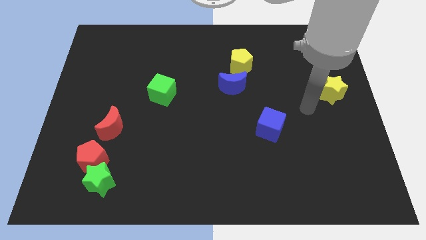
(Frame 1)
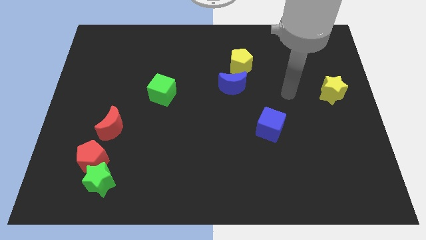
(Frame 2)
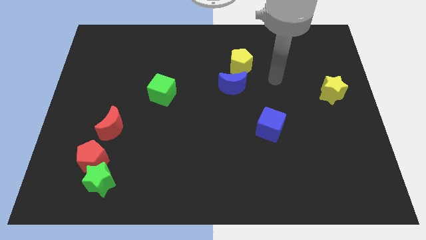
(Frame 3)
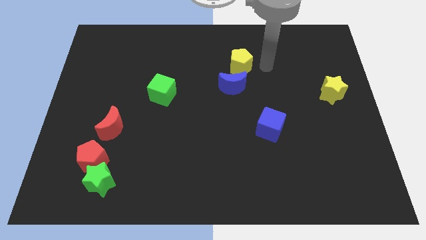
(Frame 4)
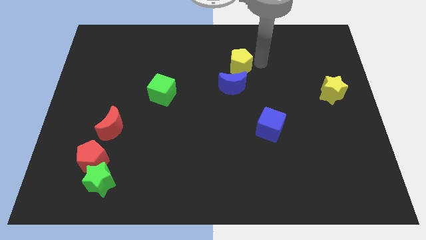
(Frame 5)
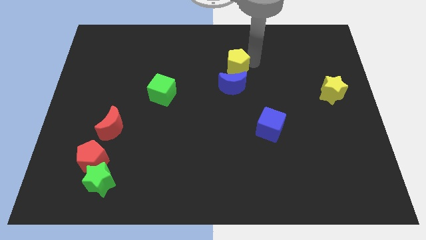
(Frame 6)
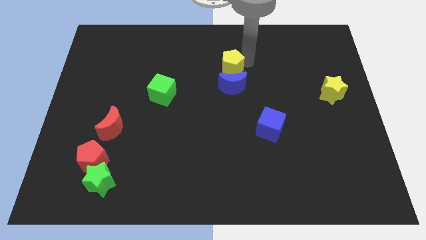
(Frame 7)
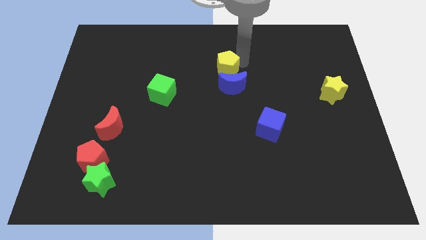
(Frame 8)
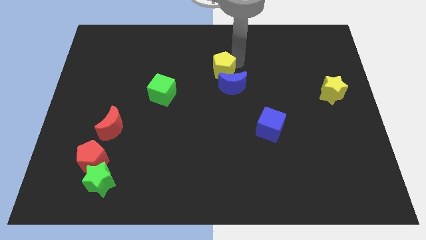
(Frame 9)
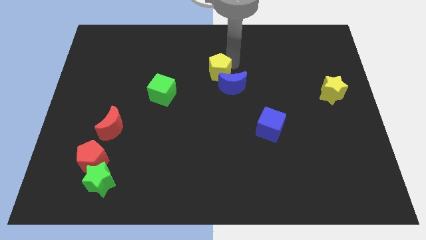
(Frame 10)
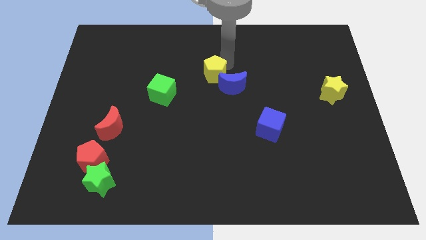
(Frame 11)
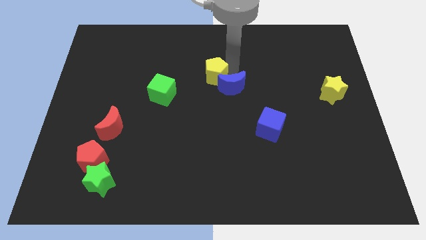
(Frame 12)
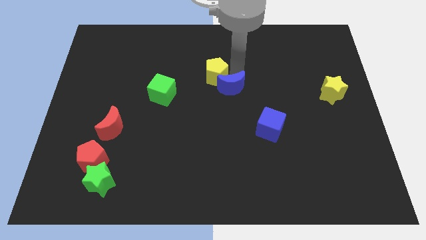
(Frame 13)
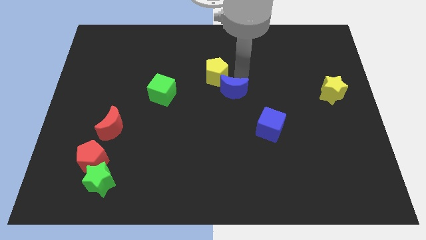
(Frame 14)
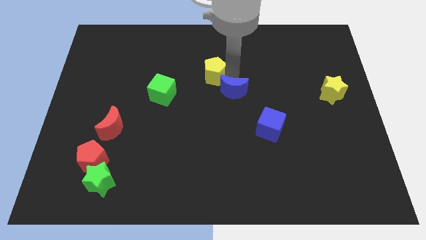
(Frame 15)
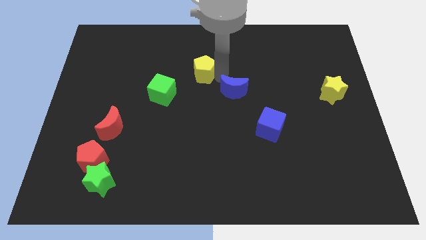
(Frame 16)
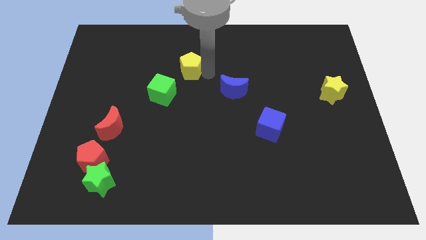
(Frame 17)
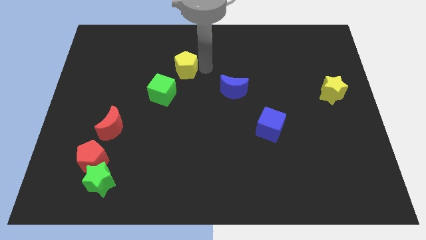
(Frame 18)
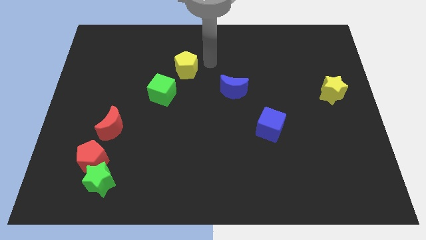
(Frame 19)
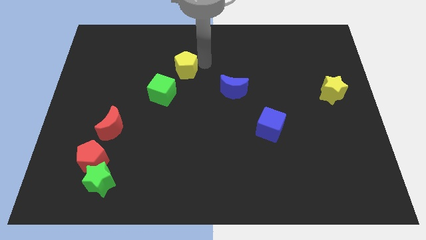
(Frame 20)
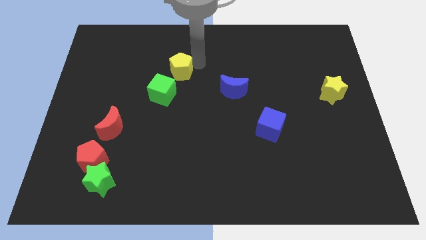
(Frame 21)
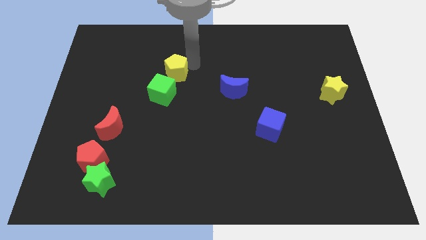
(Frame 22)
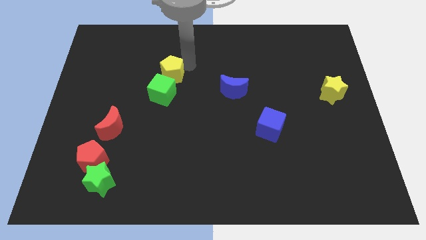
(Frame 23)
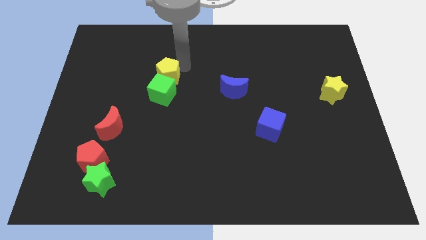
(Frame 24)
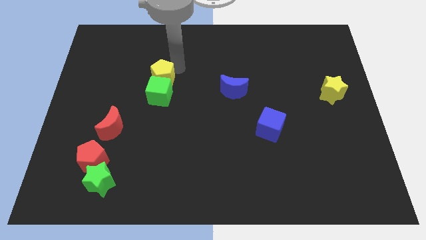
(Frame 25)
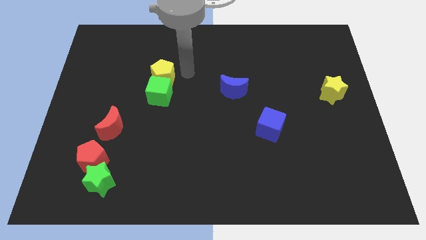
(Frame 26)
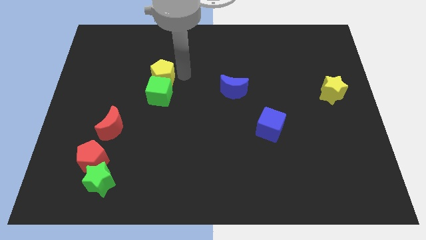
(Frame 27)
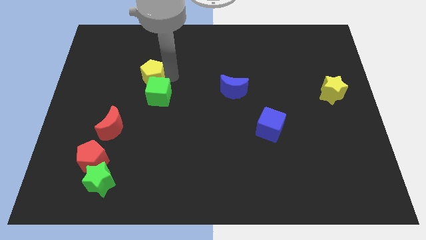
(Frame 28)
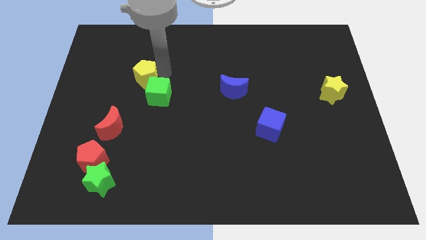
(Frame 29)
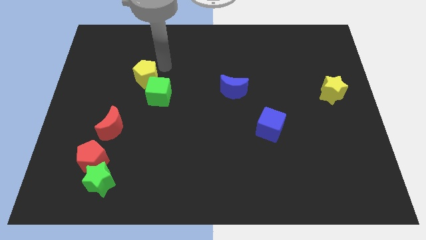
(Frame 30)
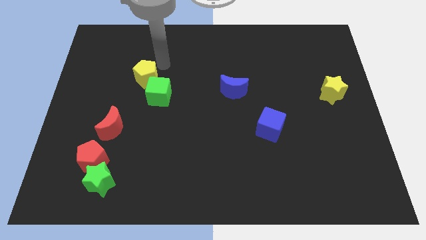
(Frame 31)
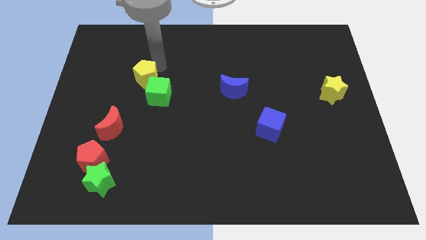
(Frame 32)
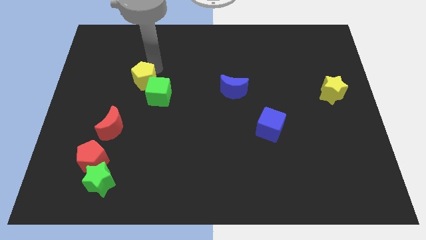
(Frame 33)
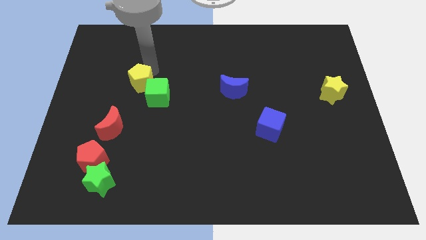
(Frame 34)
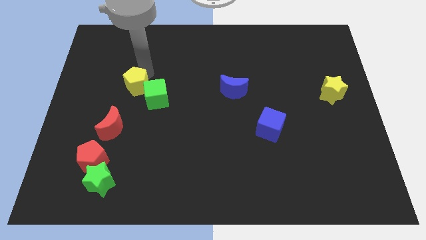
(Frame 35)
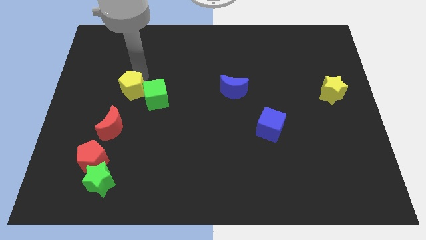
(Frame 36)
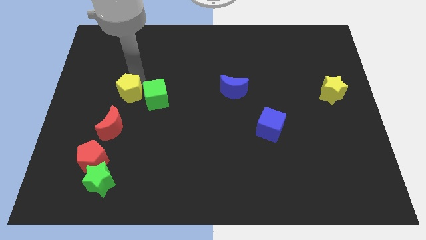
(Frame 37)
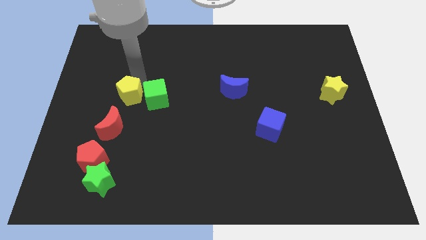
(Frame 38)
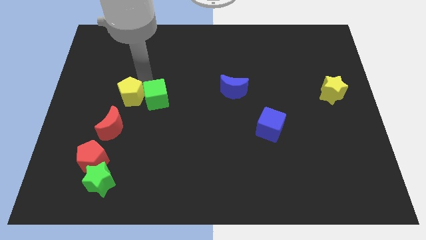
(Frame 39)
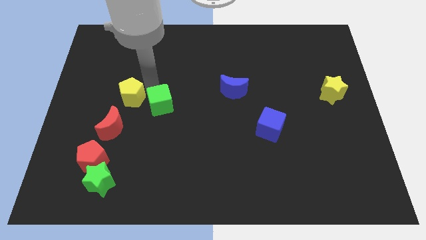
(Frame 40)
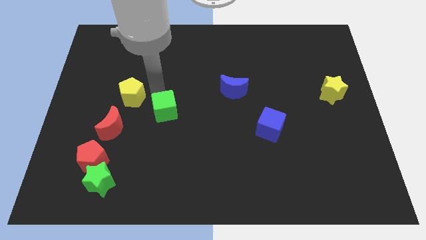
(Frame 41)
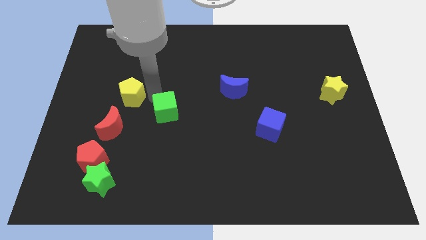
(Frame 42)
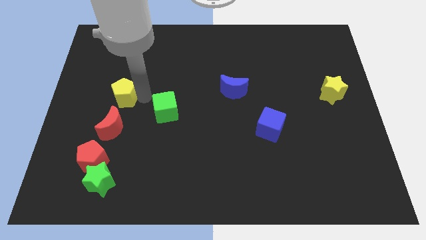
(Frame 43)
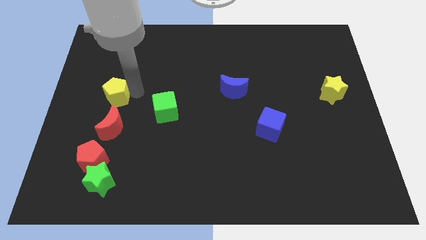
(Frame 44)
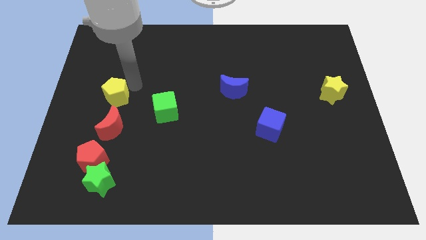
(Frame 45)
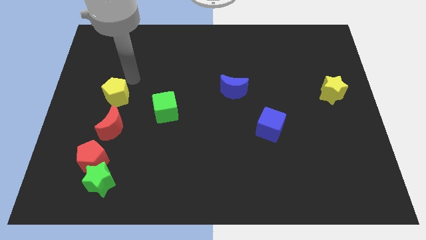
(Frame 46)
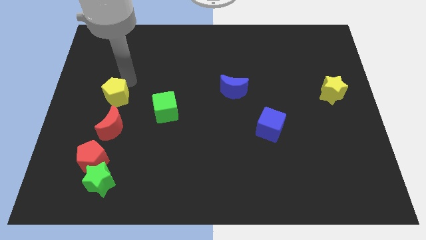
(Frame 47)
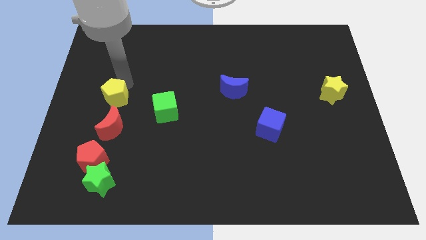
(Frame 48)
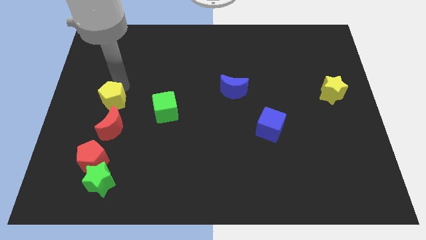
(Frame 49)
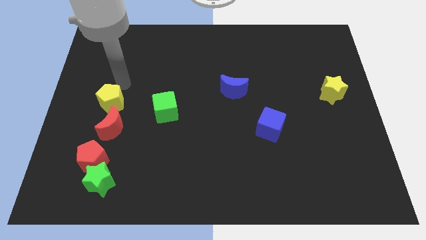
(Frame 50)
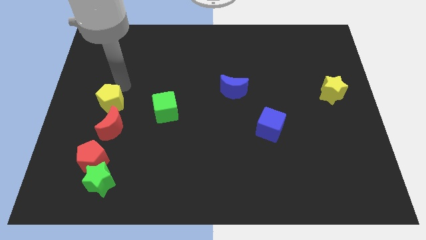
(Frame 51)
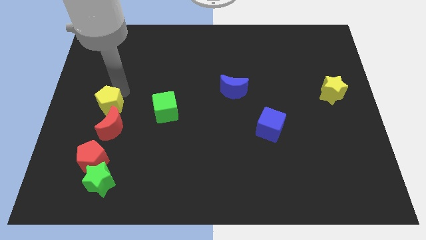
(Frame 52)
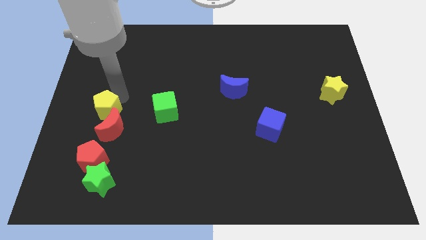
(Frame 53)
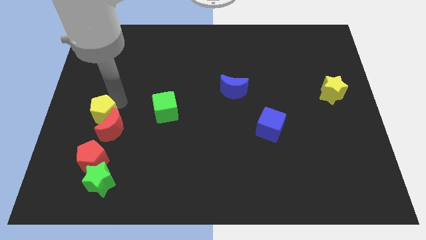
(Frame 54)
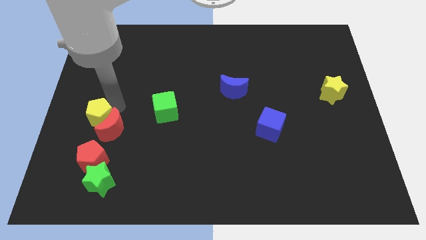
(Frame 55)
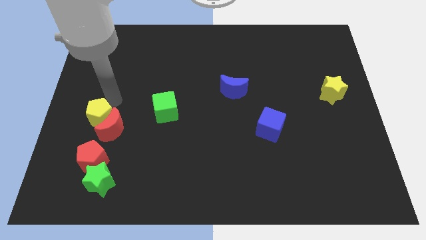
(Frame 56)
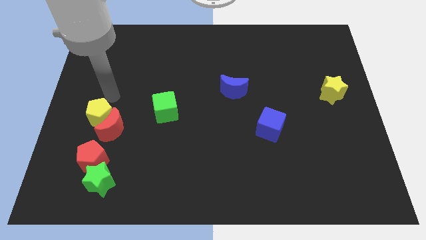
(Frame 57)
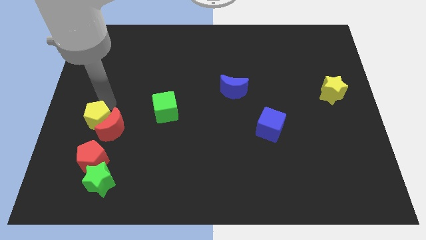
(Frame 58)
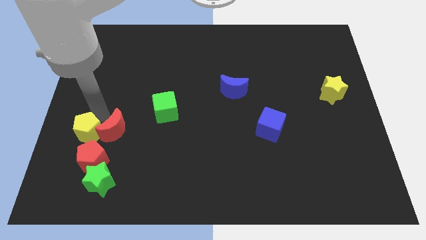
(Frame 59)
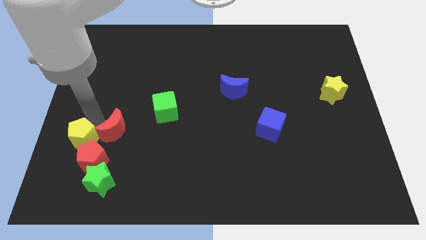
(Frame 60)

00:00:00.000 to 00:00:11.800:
move the yellow pentagon to the top left of the green star

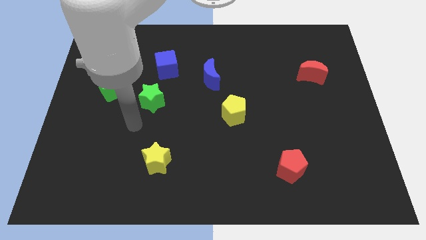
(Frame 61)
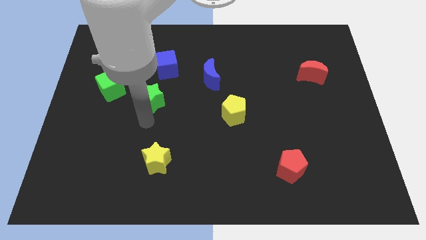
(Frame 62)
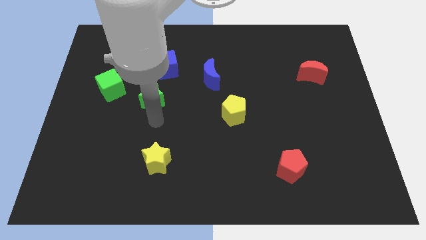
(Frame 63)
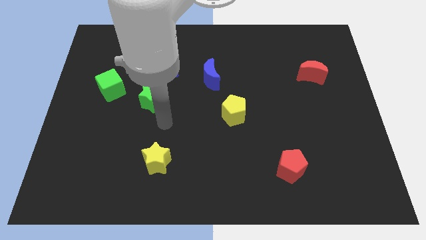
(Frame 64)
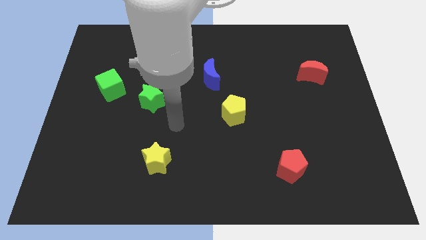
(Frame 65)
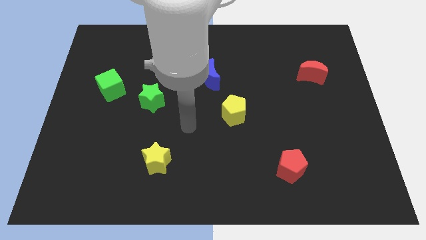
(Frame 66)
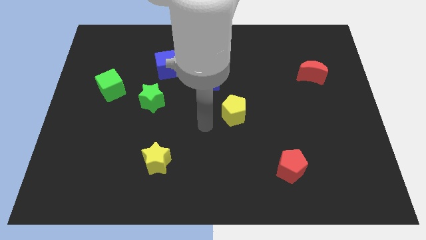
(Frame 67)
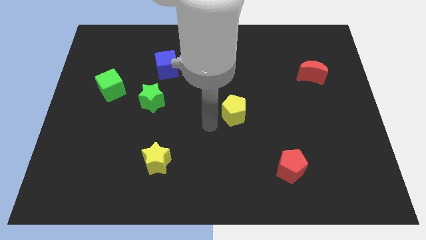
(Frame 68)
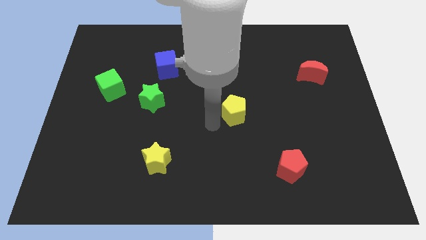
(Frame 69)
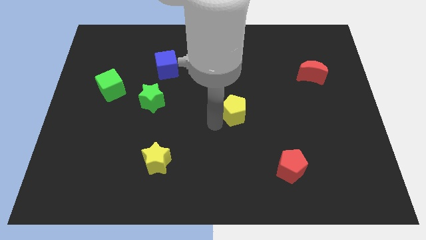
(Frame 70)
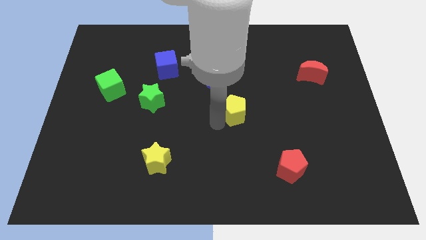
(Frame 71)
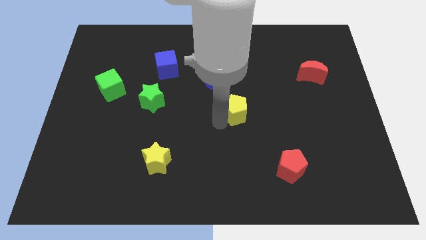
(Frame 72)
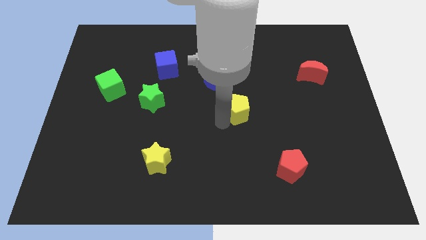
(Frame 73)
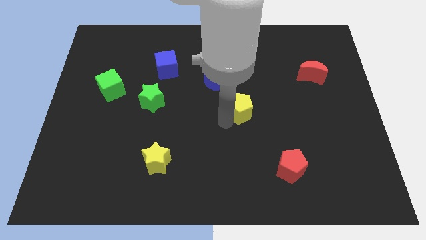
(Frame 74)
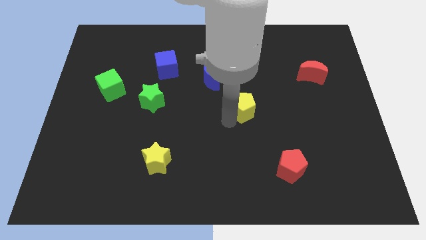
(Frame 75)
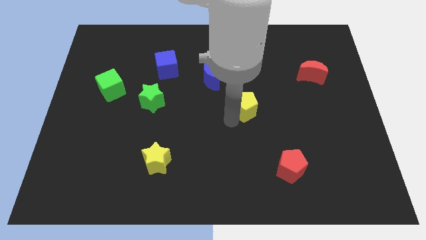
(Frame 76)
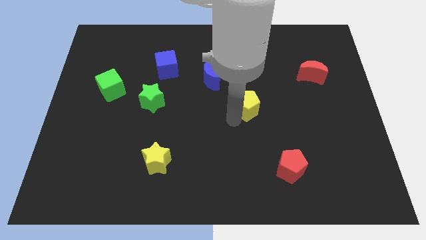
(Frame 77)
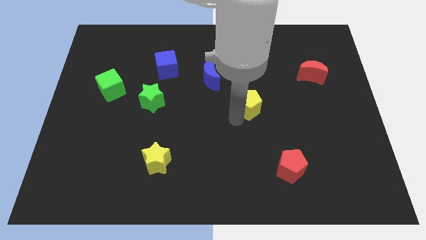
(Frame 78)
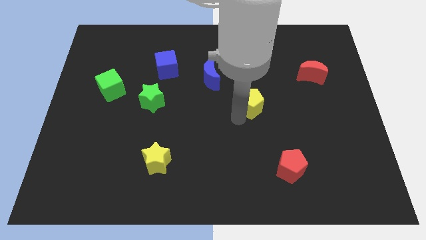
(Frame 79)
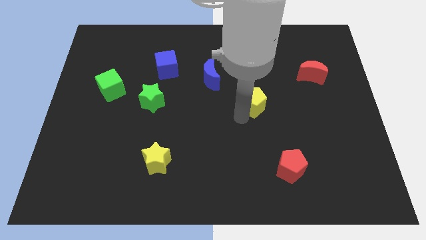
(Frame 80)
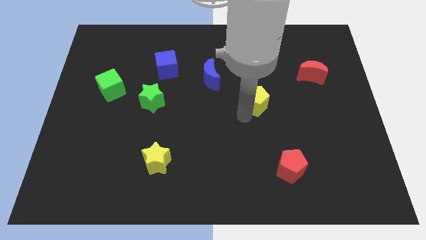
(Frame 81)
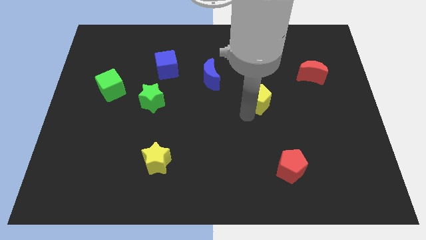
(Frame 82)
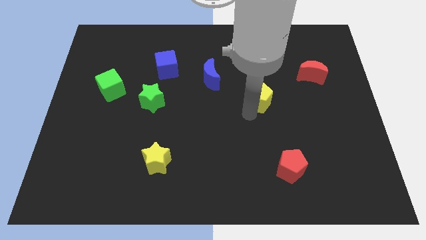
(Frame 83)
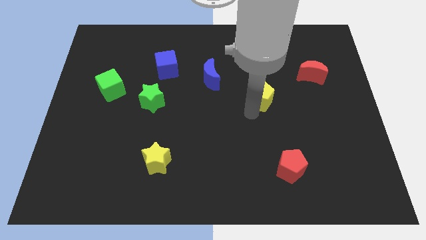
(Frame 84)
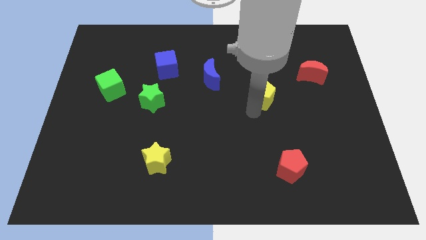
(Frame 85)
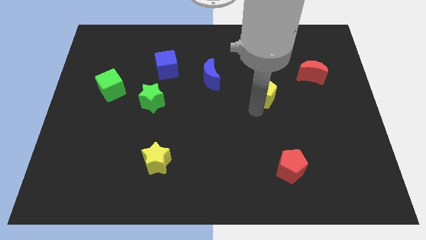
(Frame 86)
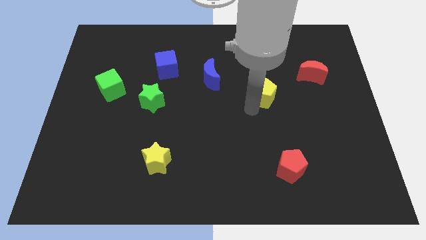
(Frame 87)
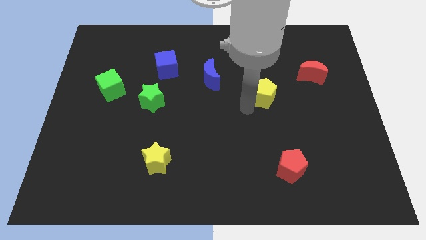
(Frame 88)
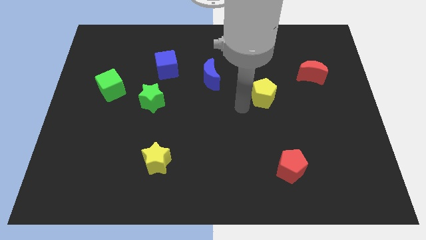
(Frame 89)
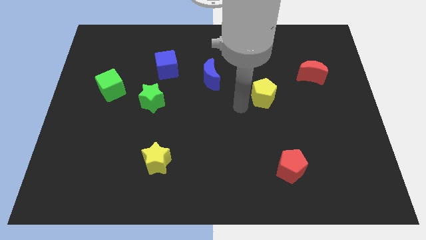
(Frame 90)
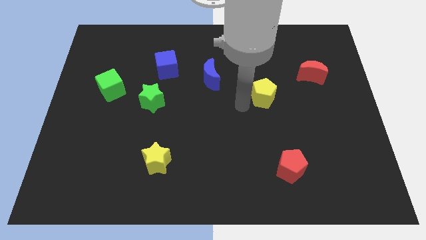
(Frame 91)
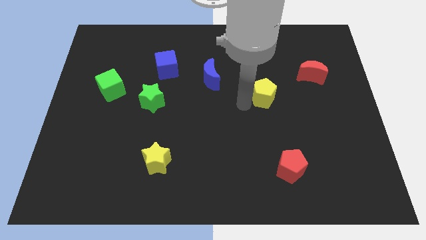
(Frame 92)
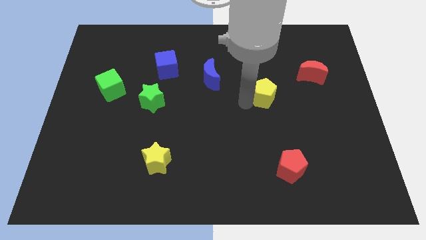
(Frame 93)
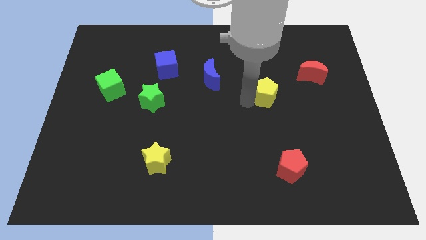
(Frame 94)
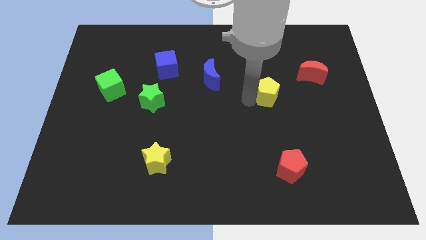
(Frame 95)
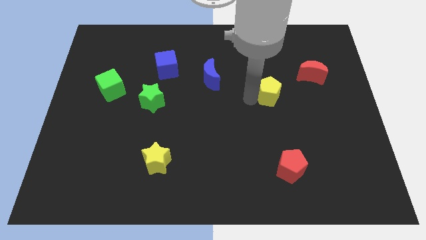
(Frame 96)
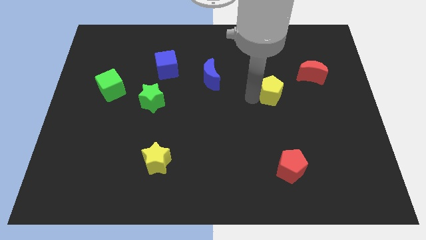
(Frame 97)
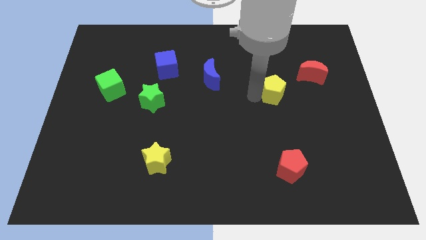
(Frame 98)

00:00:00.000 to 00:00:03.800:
slide the yellow pentagon to the bottom left side of the red moon
